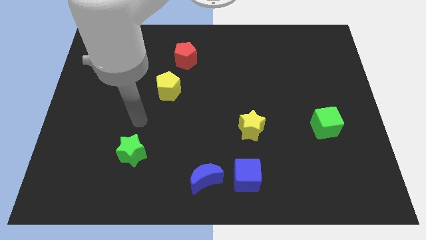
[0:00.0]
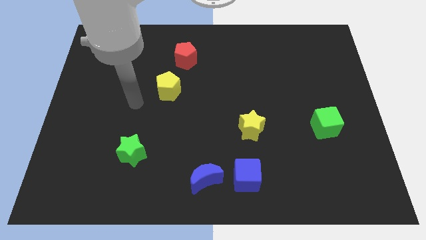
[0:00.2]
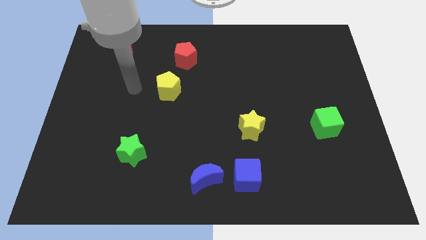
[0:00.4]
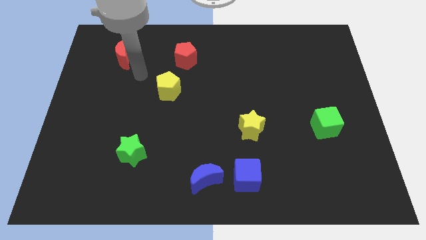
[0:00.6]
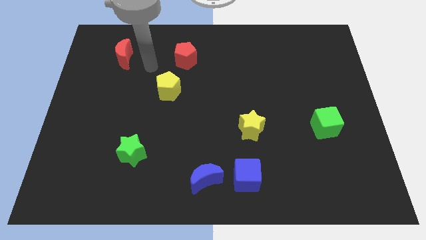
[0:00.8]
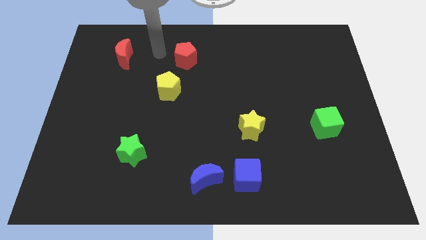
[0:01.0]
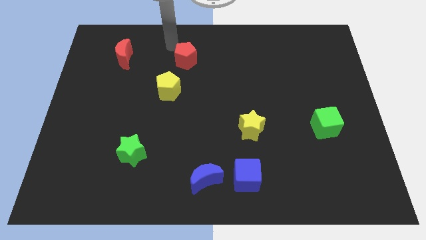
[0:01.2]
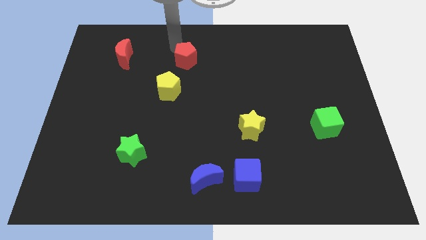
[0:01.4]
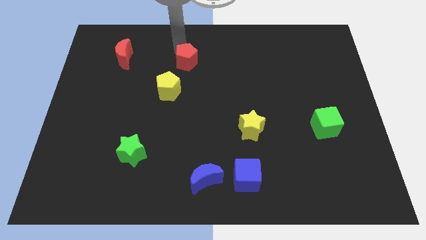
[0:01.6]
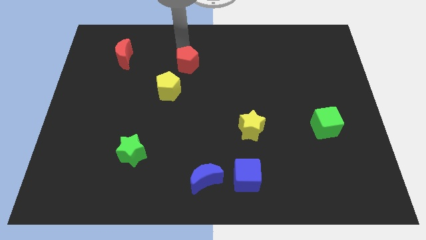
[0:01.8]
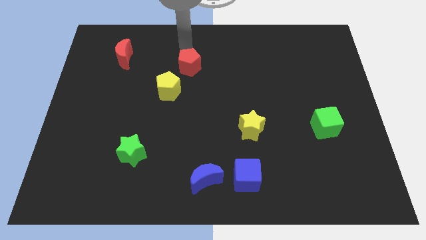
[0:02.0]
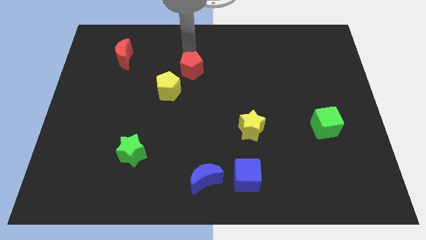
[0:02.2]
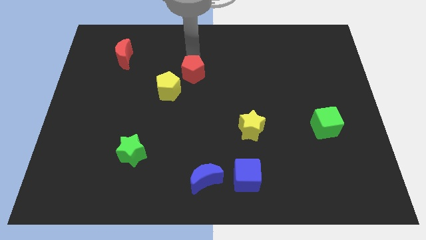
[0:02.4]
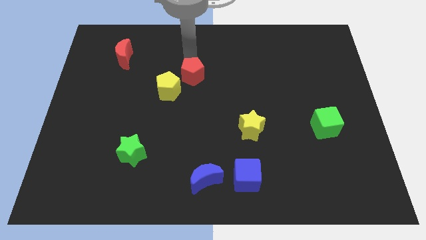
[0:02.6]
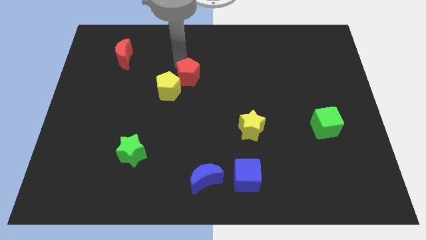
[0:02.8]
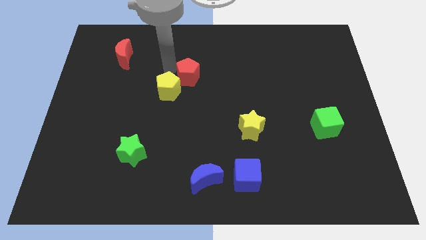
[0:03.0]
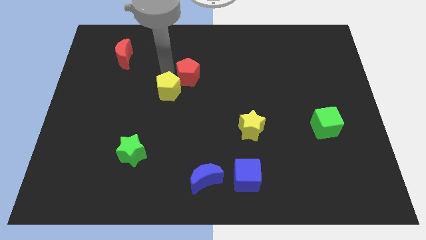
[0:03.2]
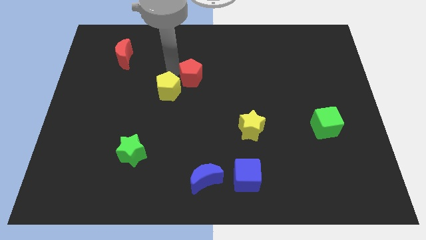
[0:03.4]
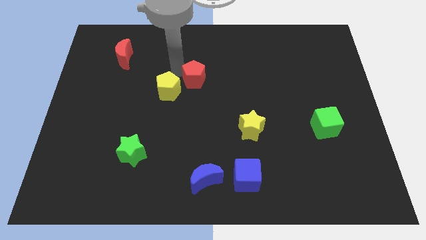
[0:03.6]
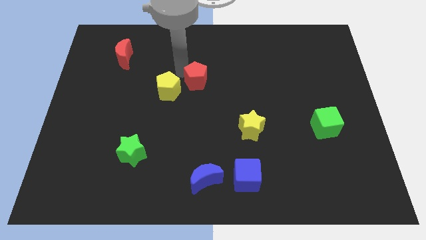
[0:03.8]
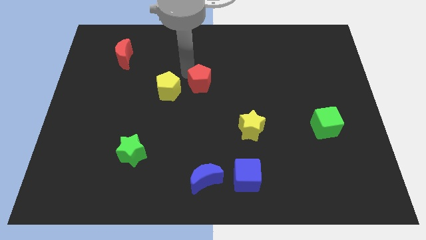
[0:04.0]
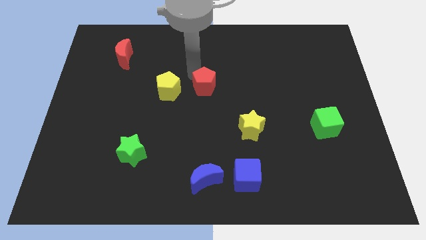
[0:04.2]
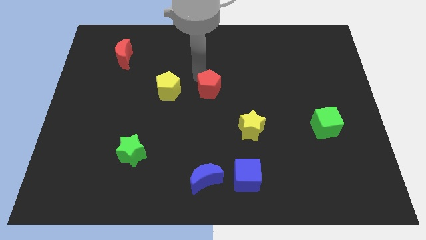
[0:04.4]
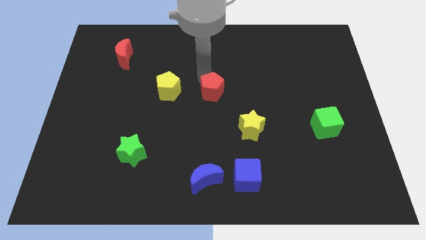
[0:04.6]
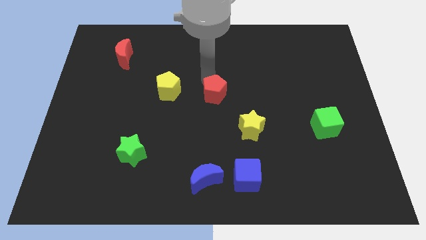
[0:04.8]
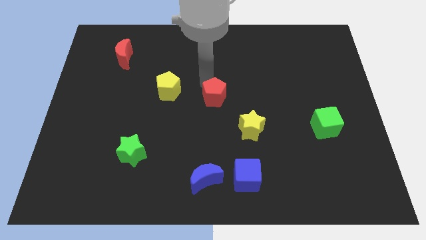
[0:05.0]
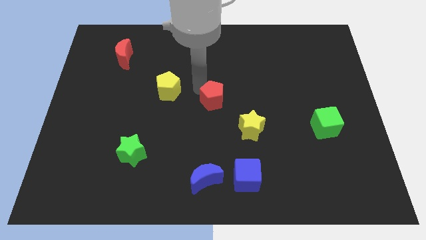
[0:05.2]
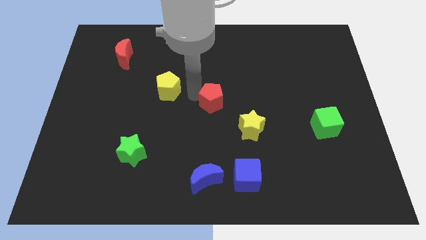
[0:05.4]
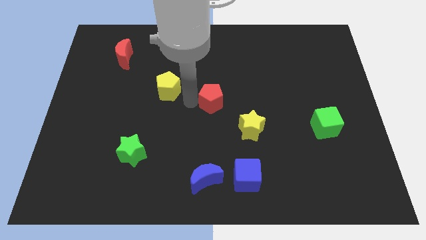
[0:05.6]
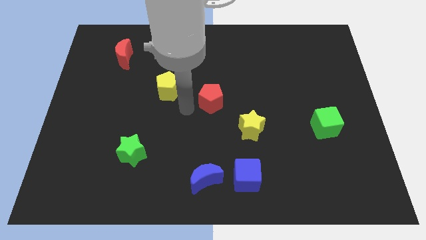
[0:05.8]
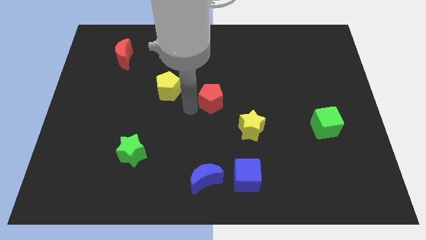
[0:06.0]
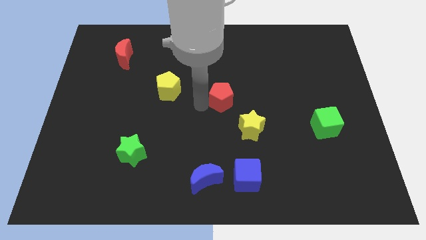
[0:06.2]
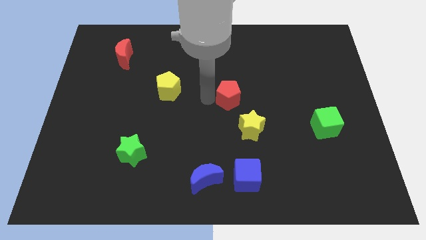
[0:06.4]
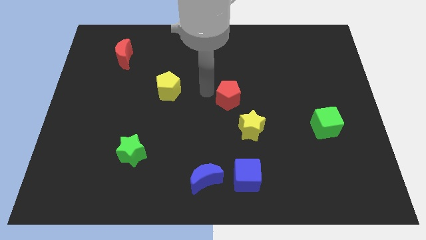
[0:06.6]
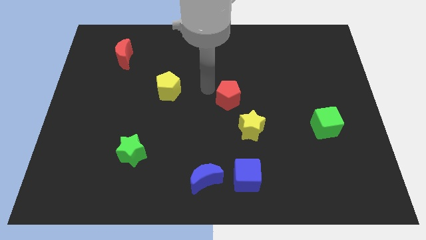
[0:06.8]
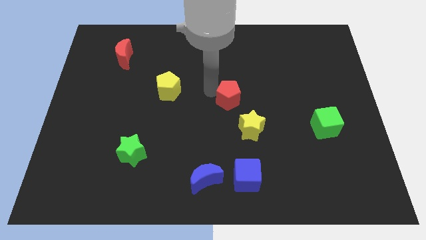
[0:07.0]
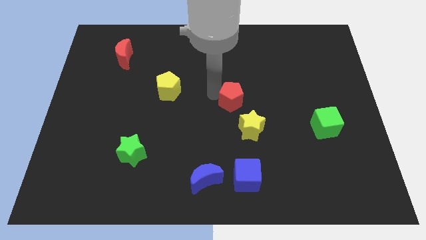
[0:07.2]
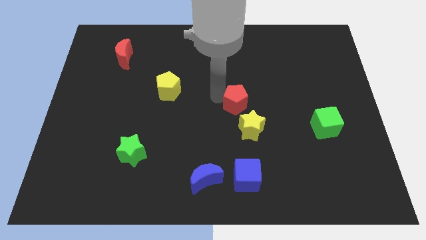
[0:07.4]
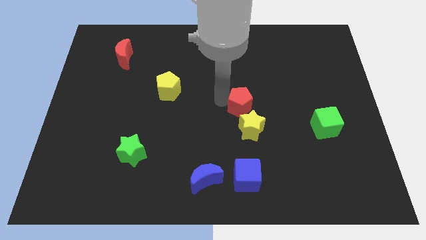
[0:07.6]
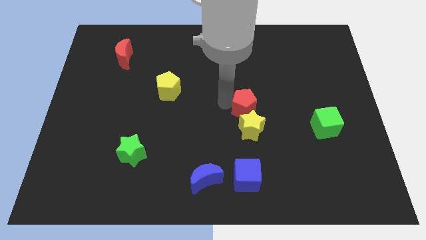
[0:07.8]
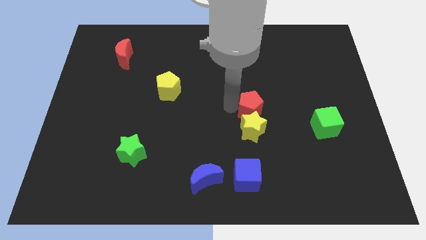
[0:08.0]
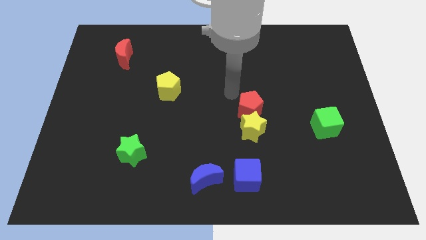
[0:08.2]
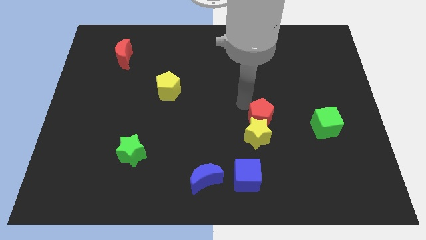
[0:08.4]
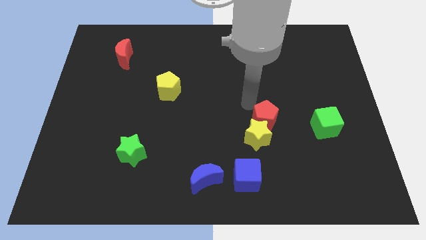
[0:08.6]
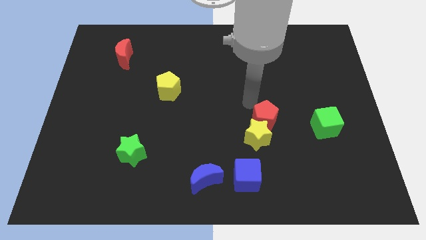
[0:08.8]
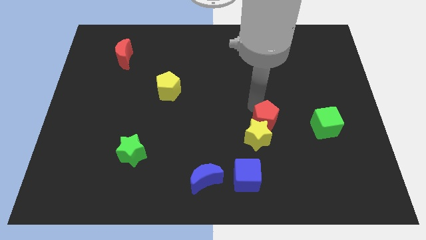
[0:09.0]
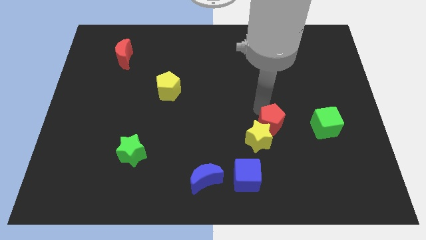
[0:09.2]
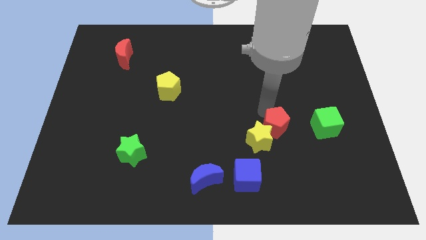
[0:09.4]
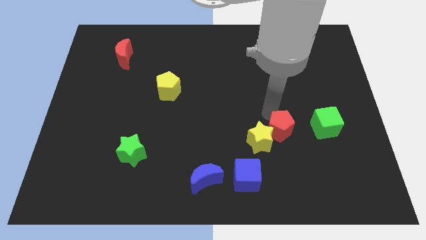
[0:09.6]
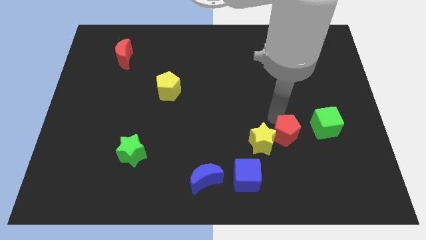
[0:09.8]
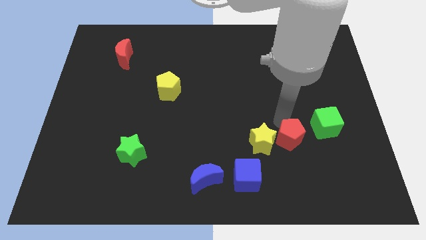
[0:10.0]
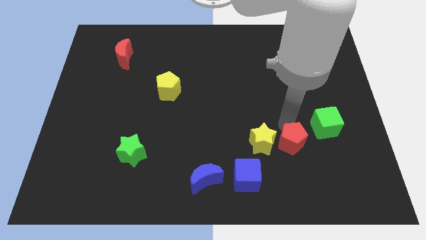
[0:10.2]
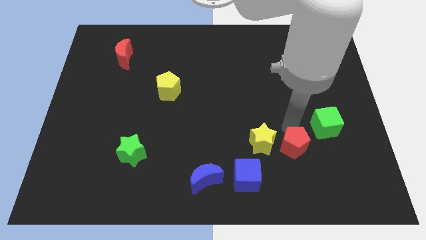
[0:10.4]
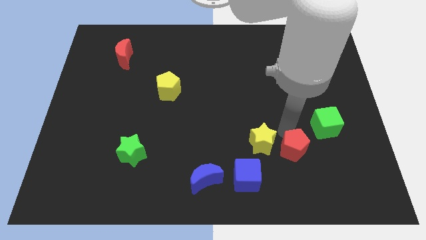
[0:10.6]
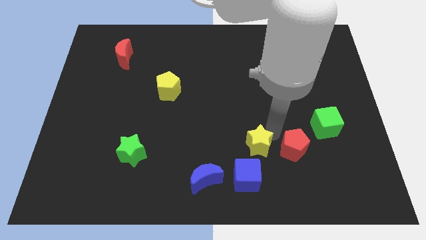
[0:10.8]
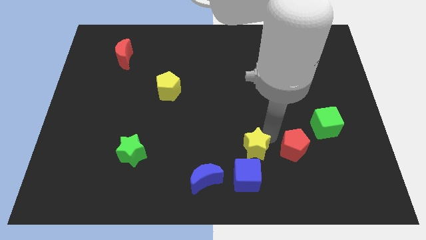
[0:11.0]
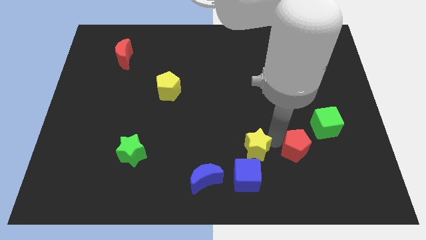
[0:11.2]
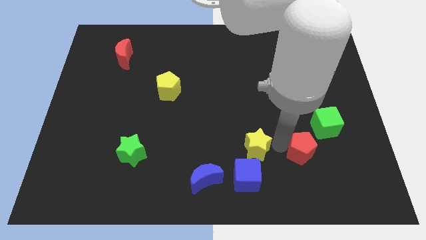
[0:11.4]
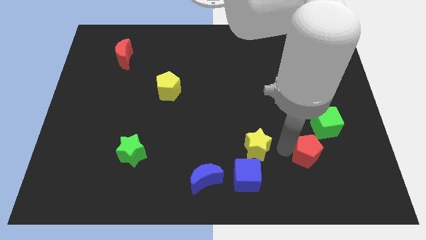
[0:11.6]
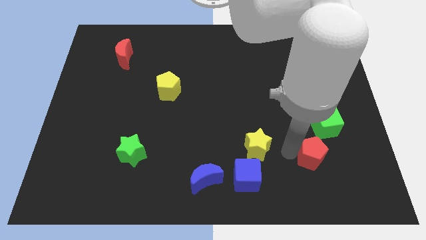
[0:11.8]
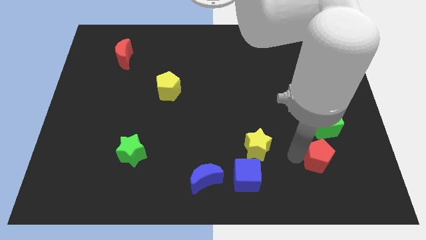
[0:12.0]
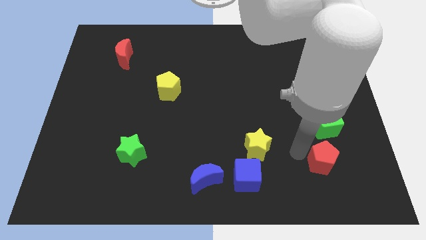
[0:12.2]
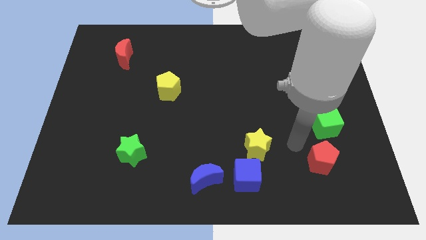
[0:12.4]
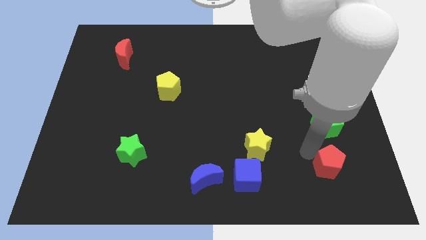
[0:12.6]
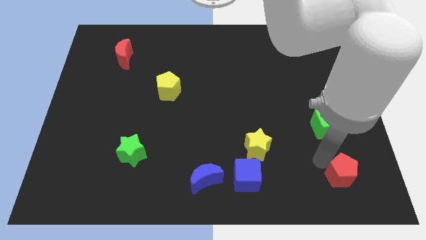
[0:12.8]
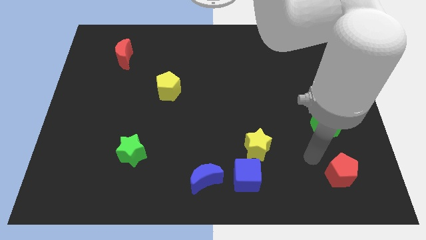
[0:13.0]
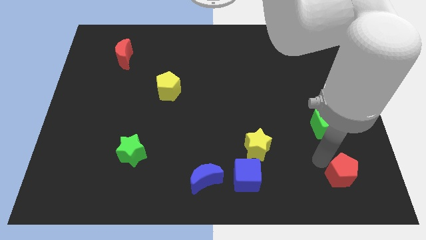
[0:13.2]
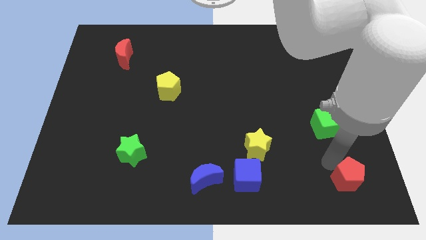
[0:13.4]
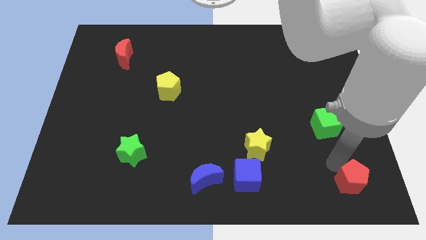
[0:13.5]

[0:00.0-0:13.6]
put the red pentagon to the bottom right of the board
